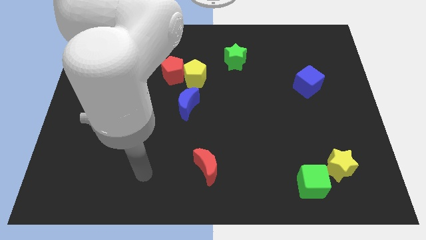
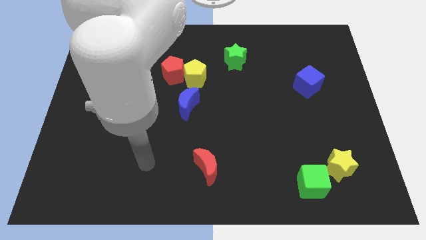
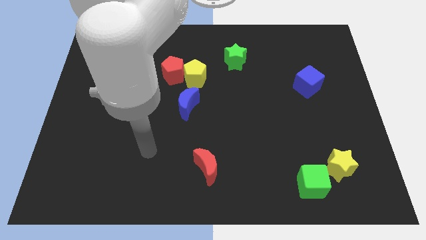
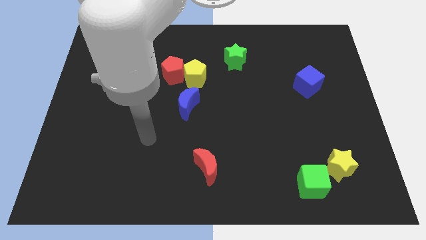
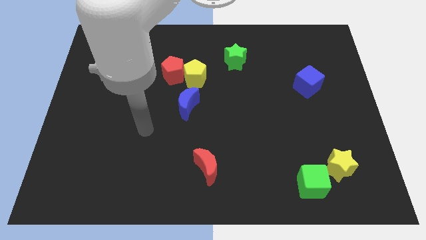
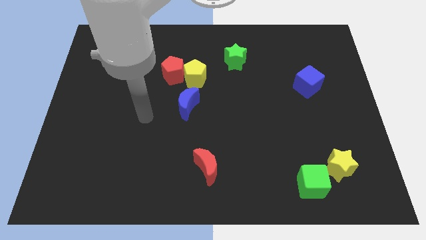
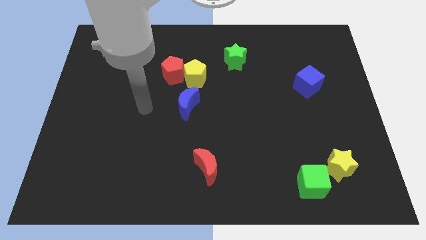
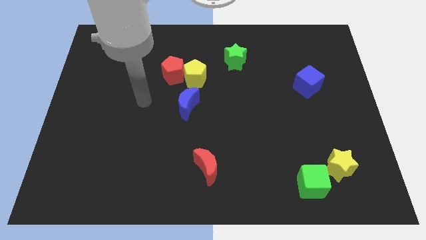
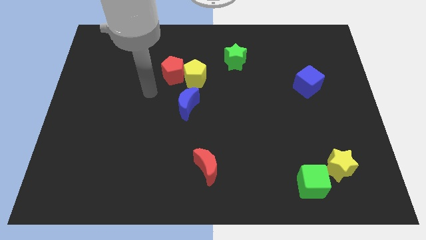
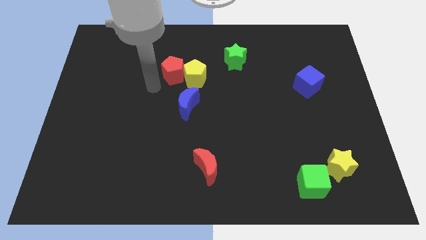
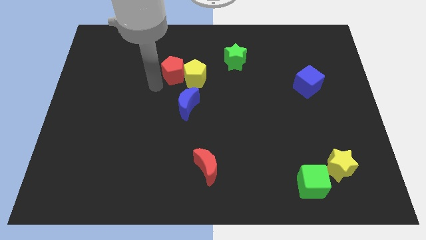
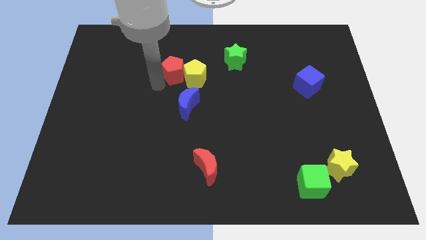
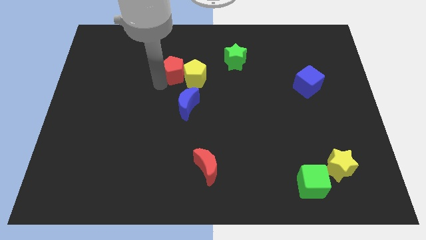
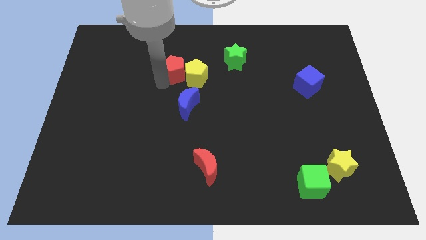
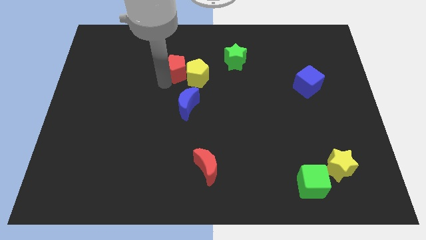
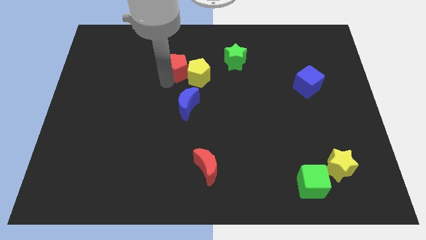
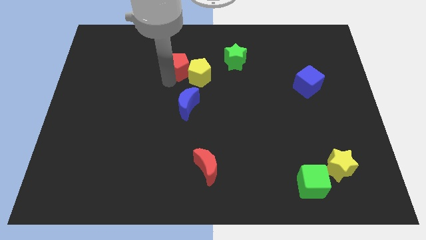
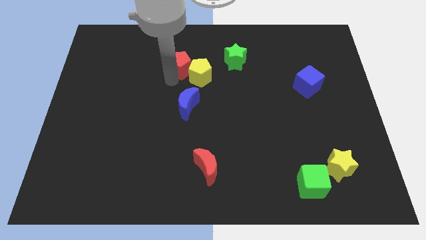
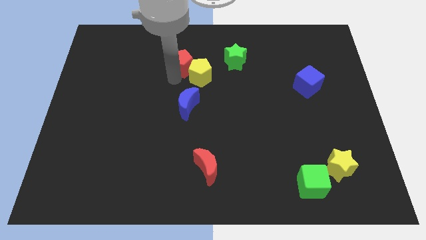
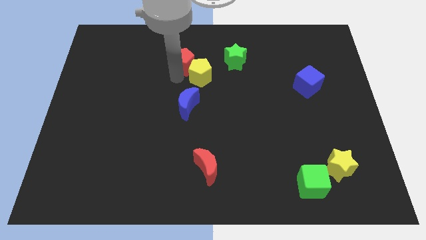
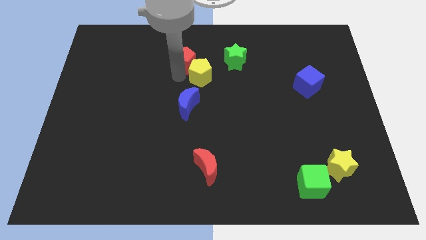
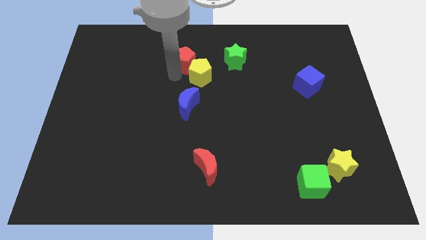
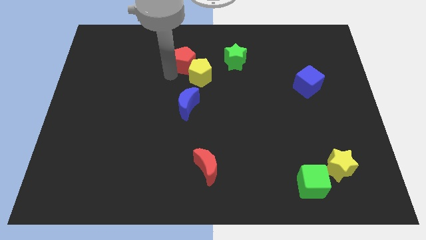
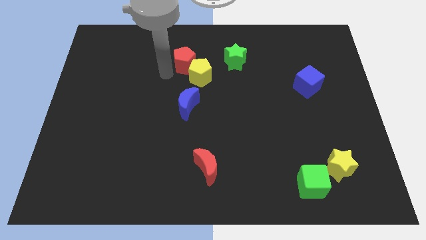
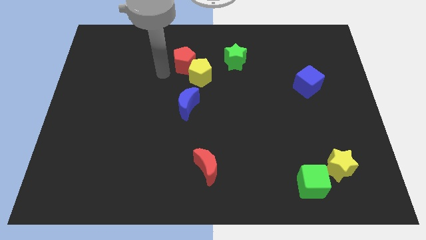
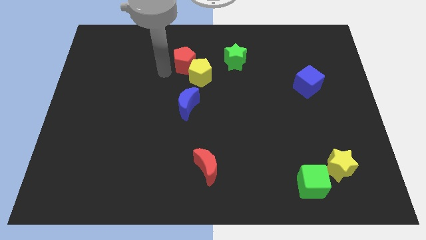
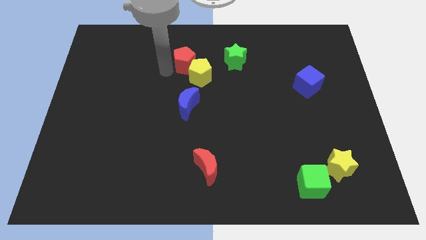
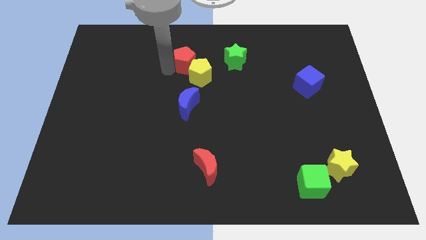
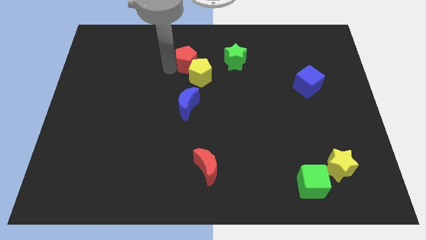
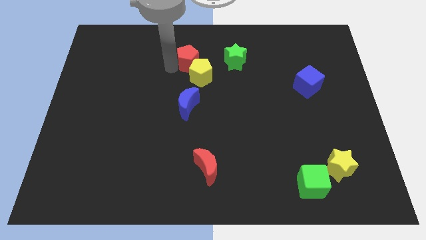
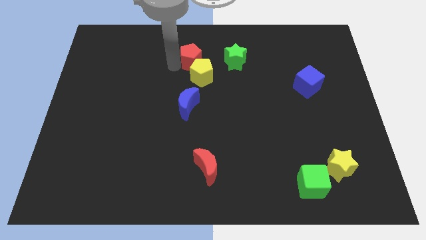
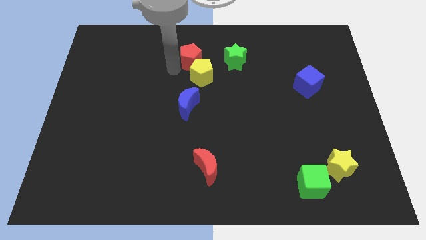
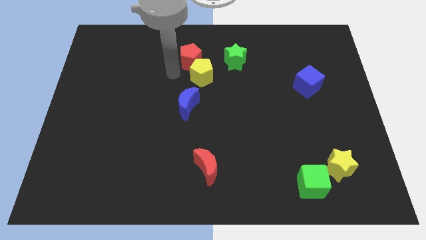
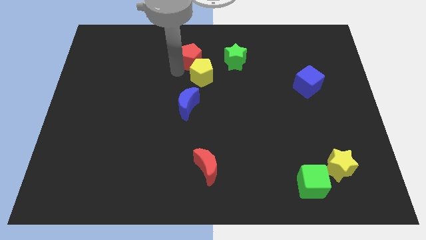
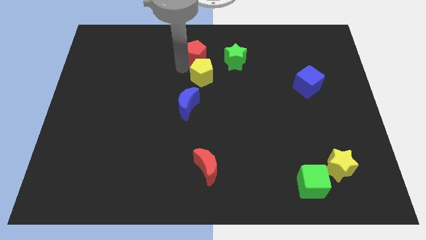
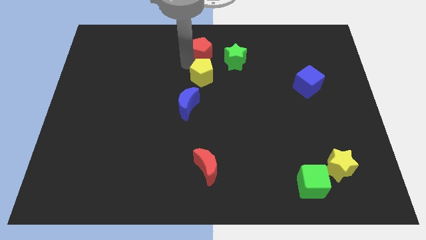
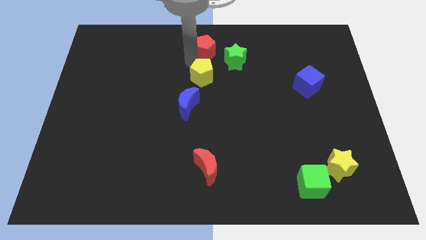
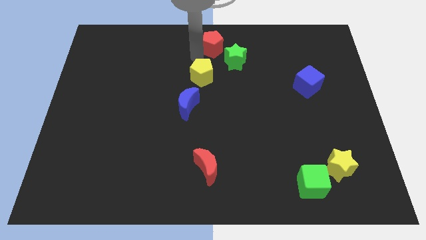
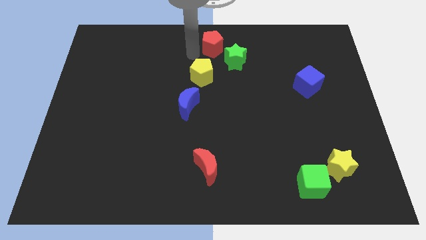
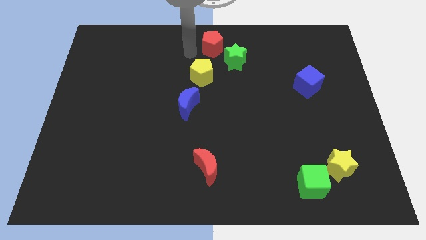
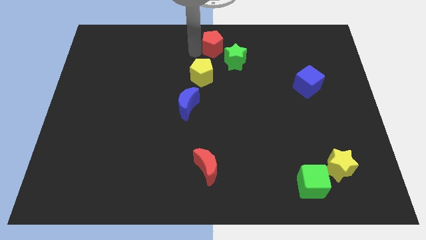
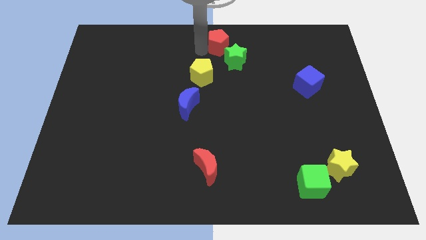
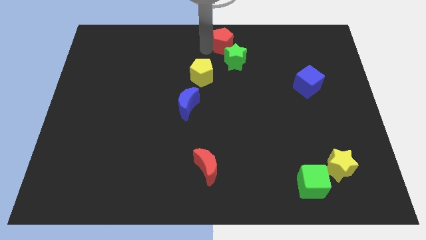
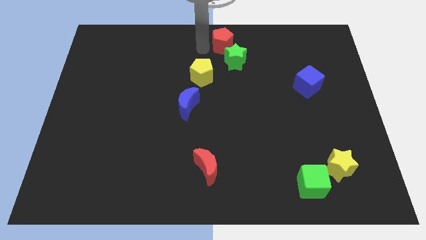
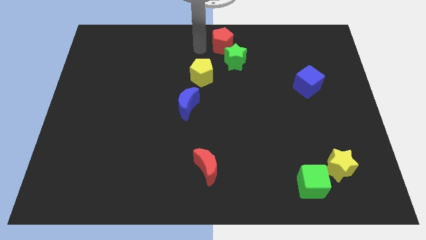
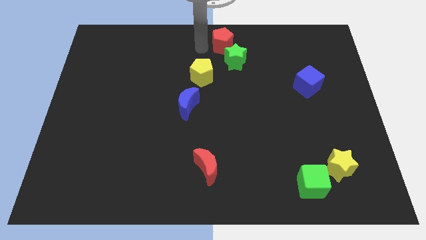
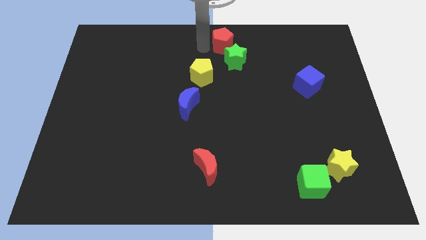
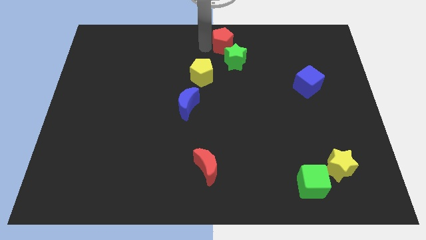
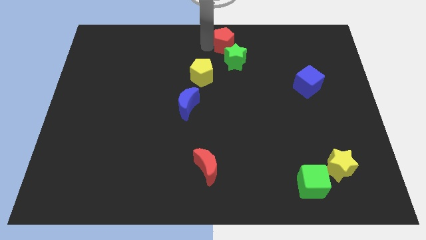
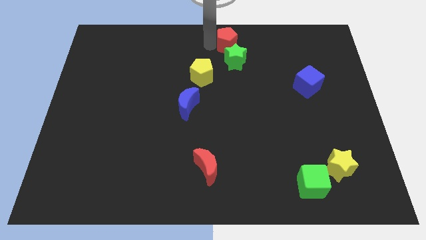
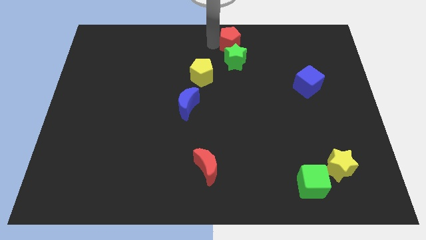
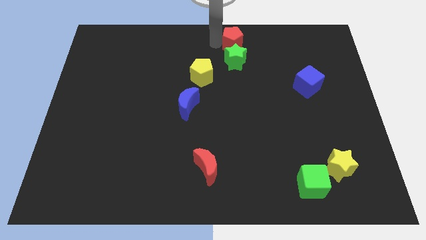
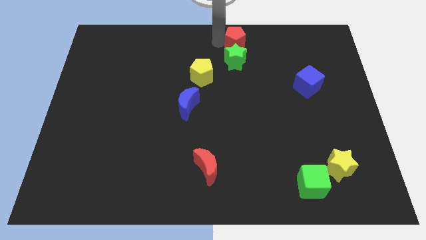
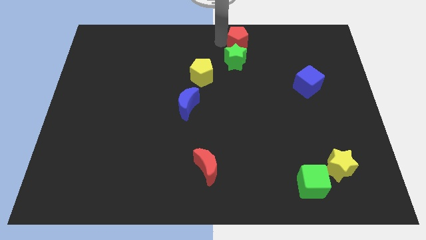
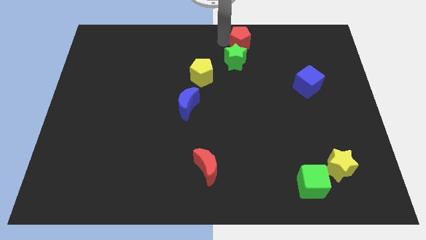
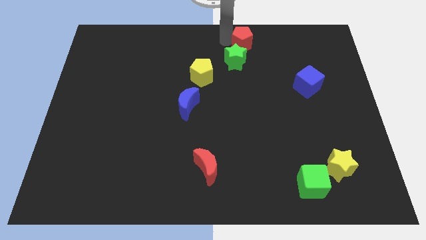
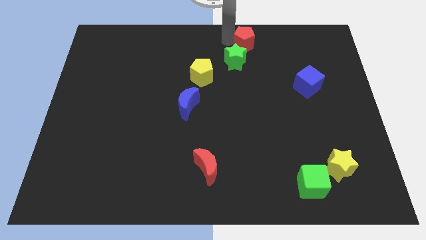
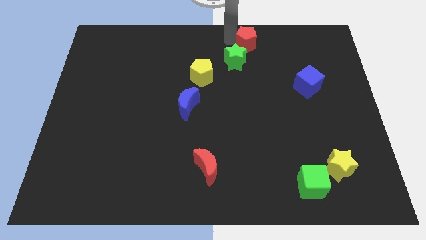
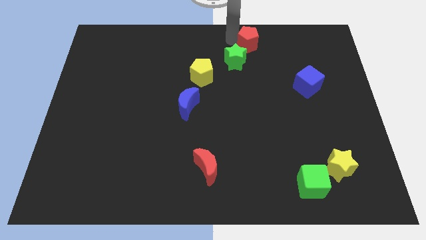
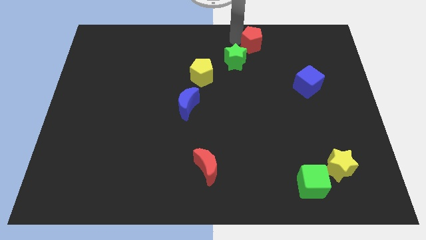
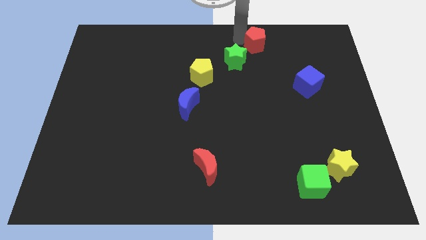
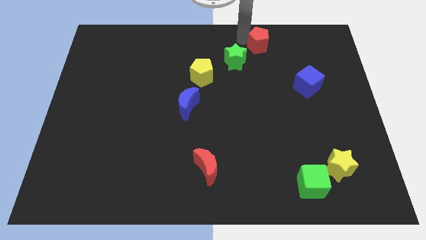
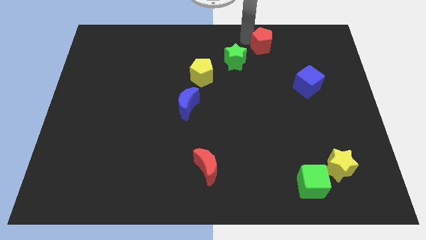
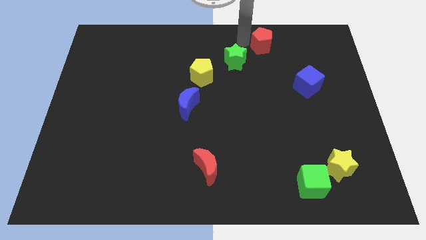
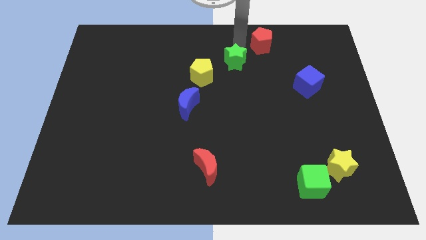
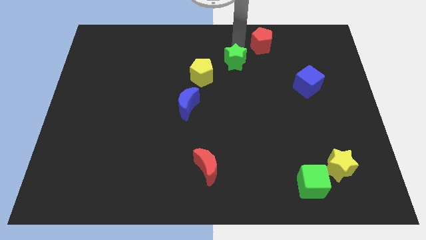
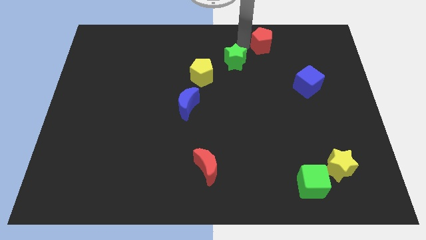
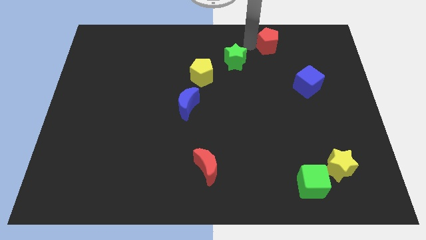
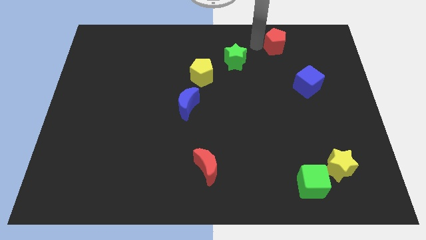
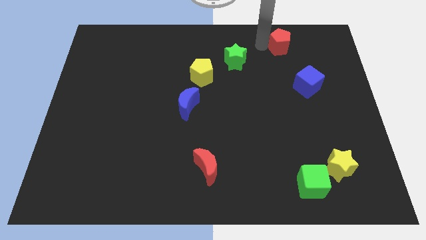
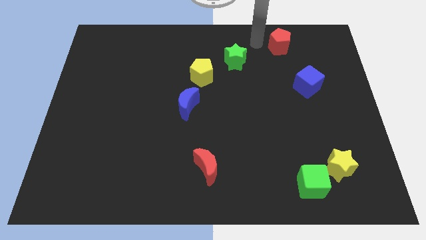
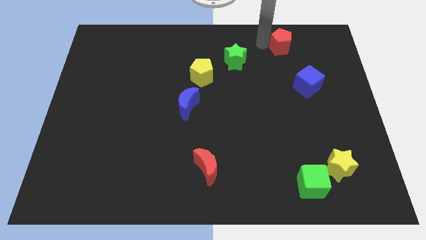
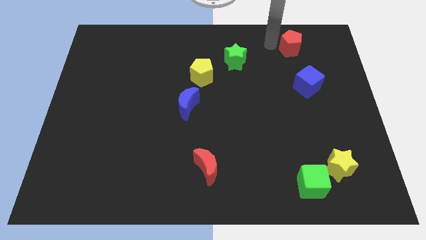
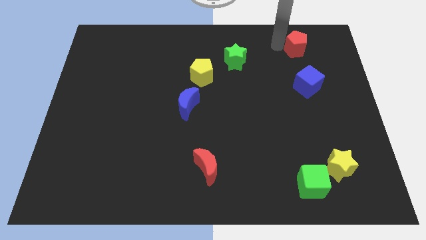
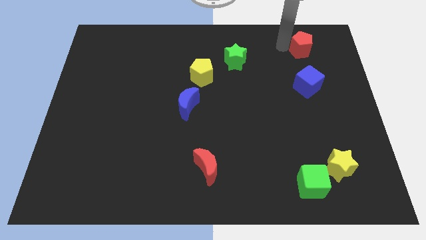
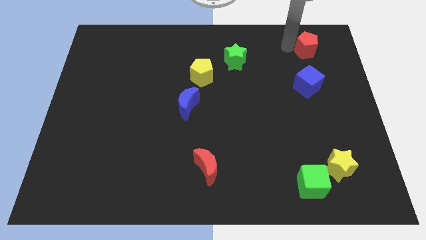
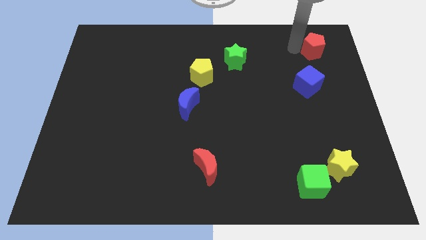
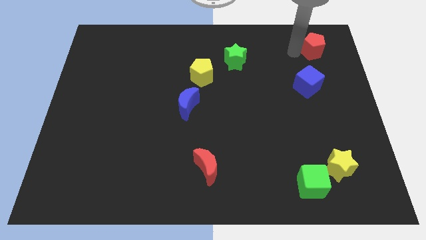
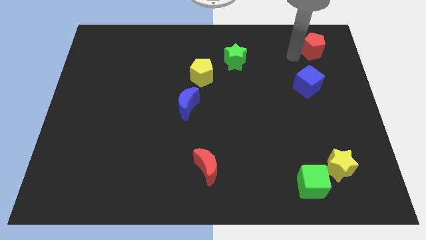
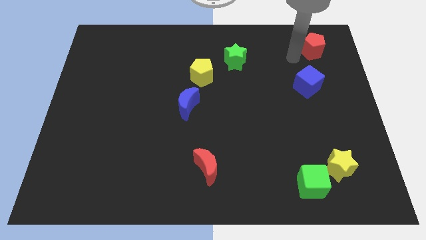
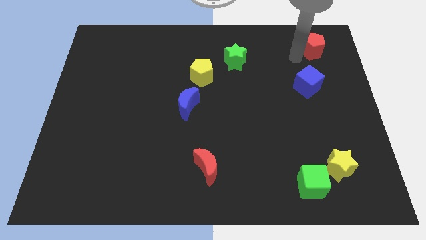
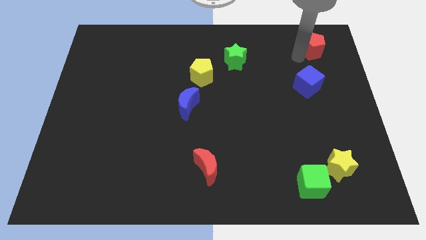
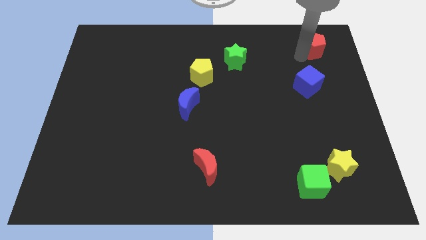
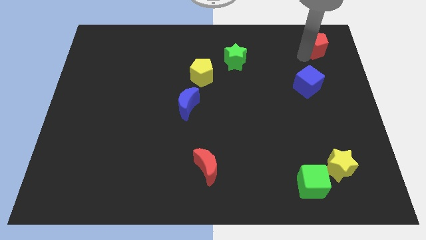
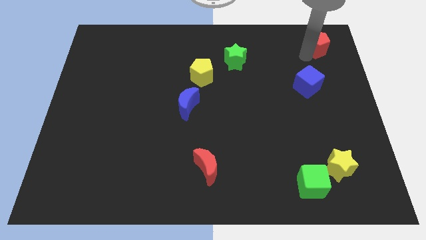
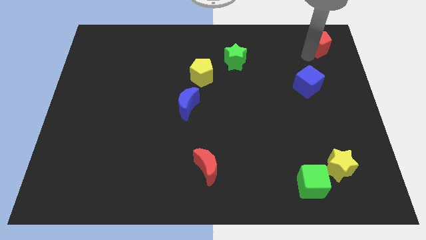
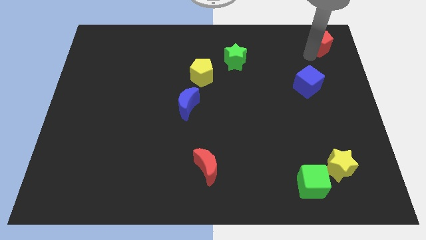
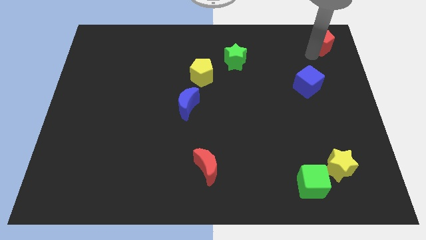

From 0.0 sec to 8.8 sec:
move the red pentagon to the top right

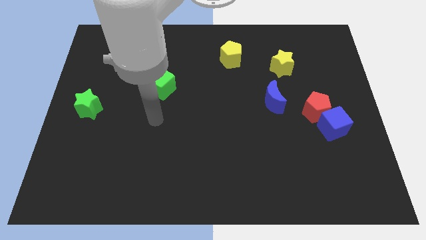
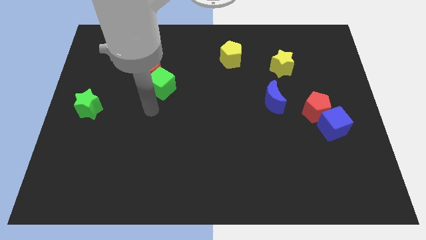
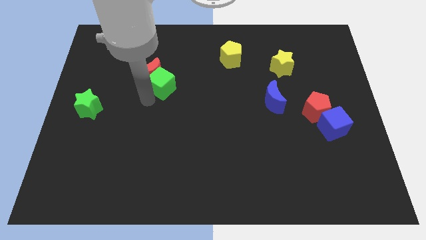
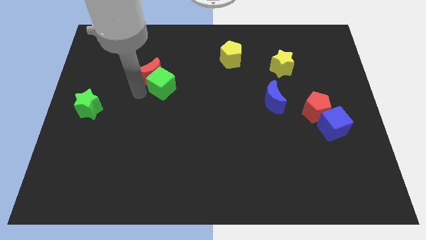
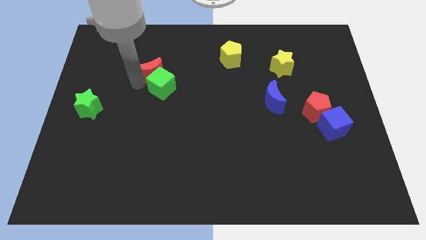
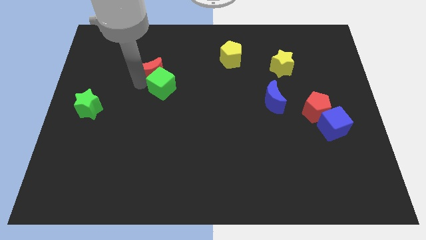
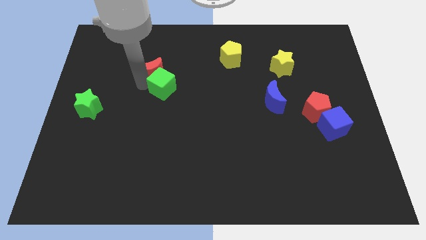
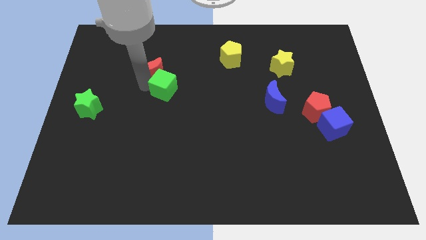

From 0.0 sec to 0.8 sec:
slide the green cube to the middle of the board
